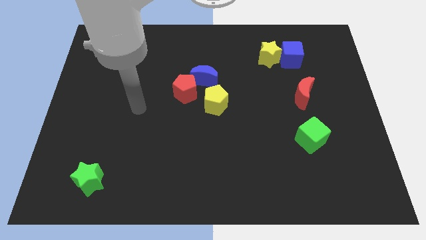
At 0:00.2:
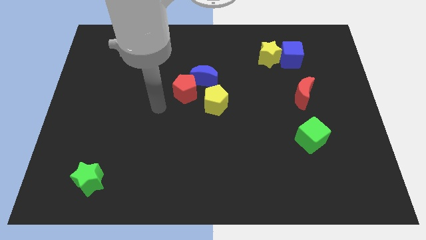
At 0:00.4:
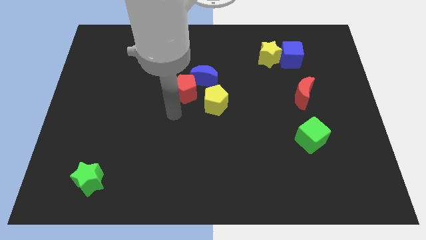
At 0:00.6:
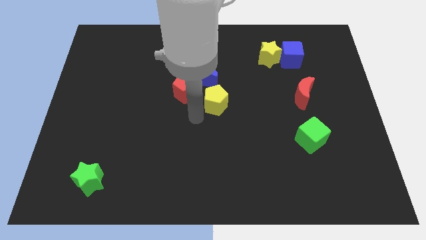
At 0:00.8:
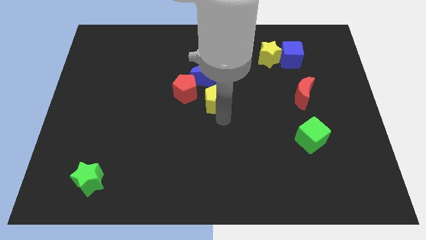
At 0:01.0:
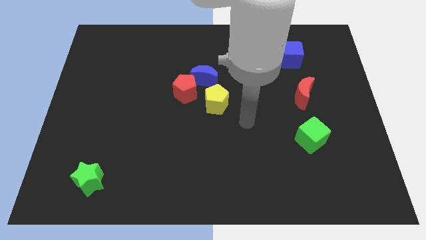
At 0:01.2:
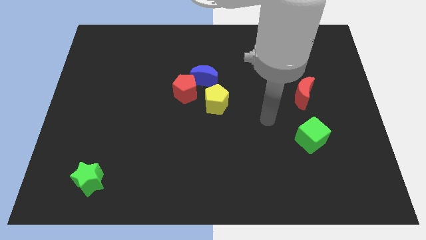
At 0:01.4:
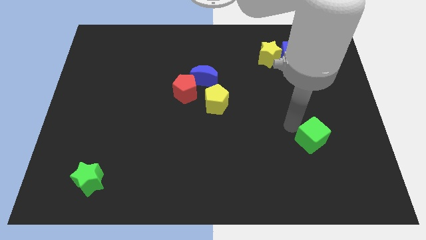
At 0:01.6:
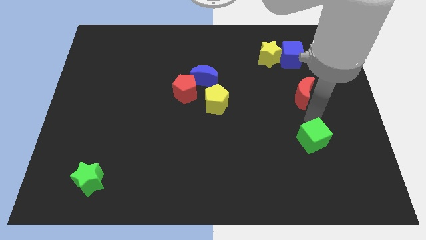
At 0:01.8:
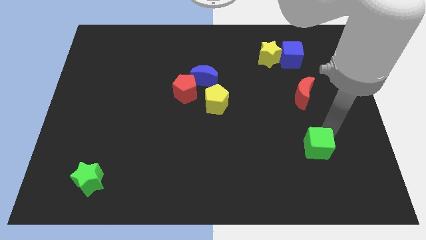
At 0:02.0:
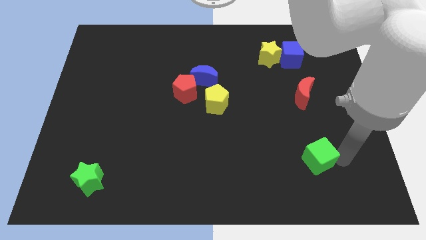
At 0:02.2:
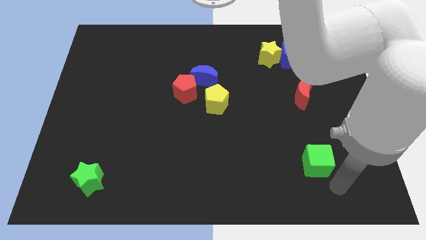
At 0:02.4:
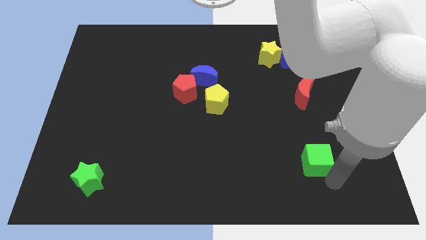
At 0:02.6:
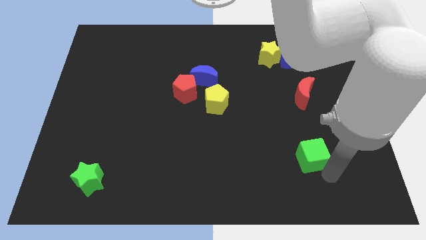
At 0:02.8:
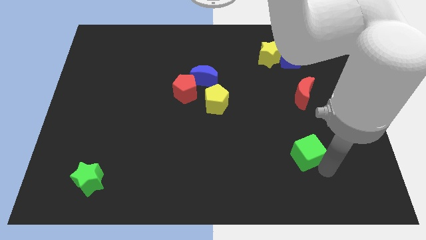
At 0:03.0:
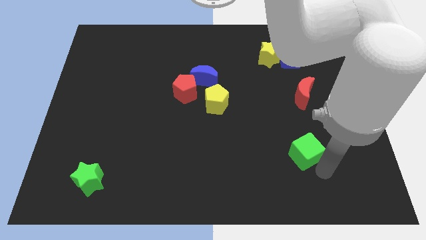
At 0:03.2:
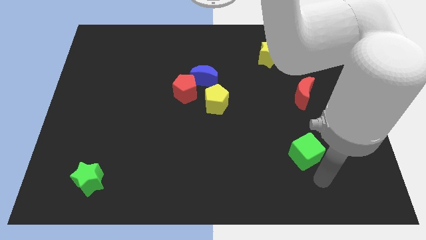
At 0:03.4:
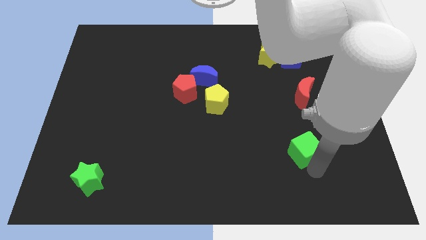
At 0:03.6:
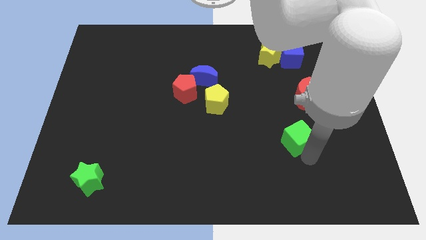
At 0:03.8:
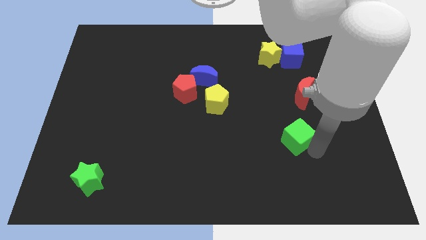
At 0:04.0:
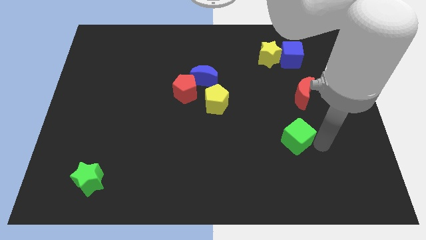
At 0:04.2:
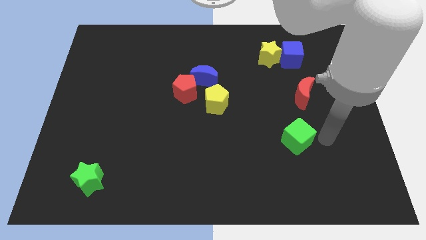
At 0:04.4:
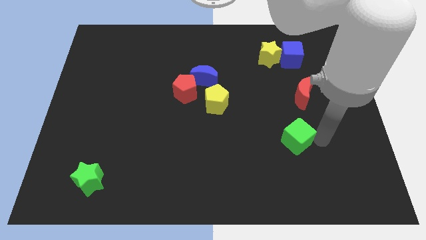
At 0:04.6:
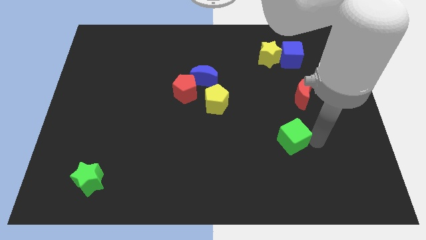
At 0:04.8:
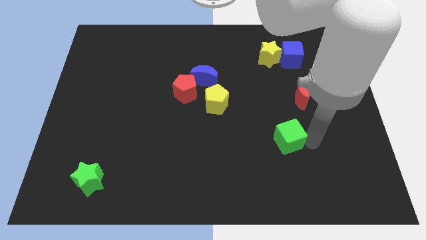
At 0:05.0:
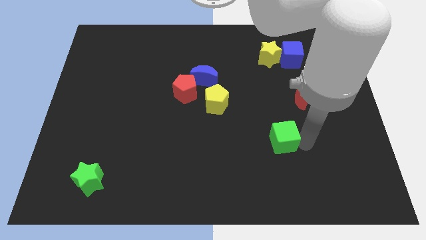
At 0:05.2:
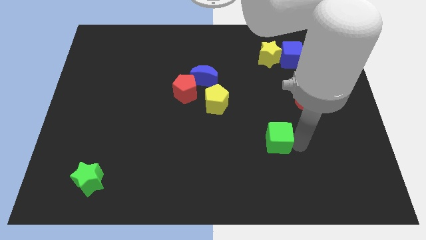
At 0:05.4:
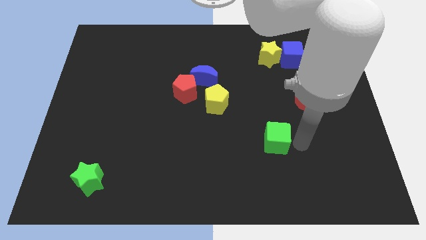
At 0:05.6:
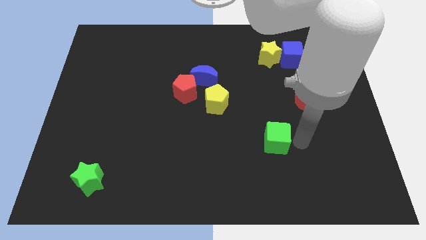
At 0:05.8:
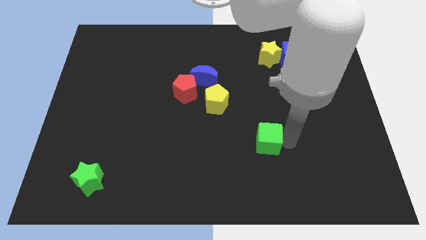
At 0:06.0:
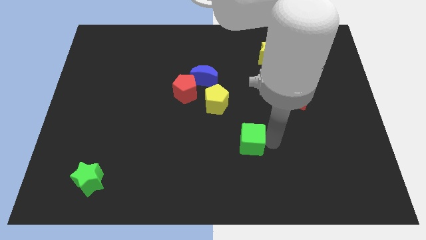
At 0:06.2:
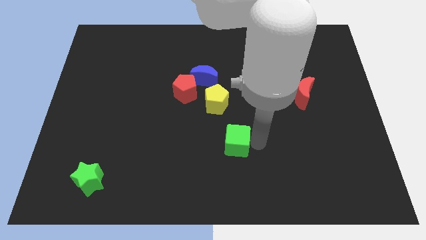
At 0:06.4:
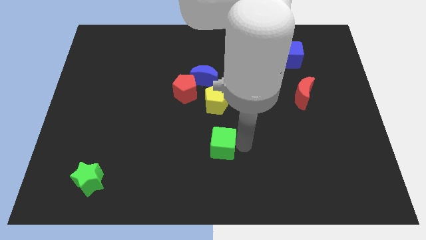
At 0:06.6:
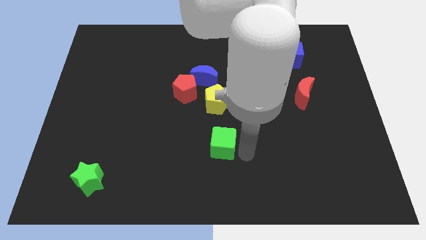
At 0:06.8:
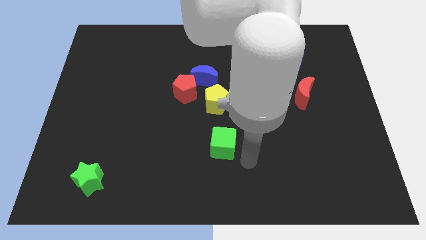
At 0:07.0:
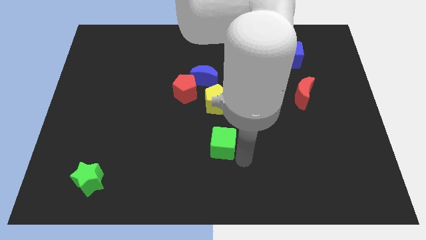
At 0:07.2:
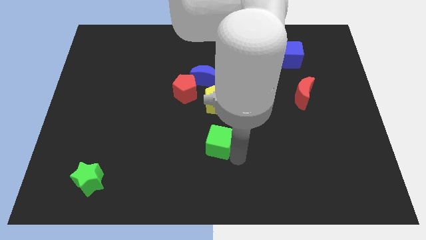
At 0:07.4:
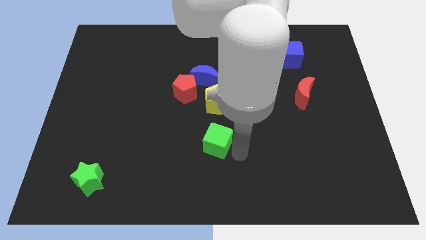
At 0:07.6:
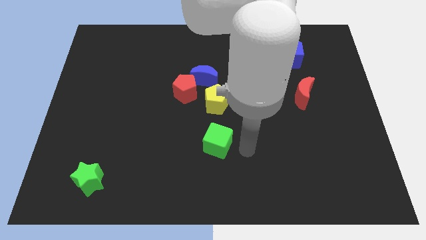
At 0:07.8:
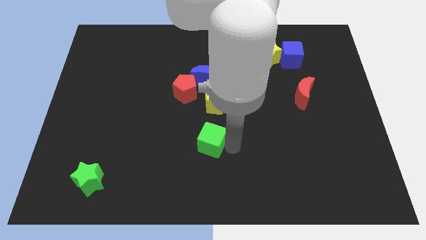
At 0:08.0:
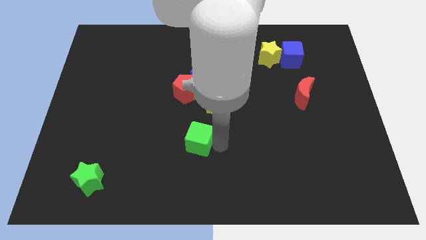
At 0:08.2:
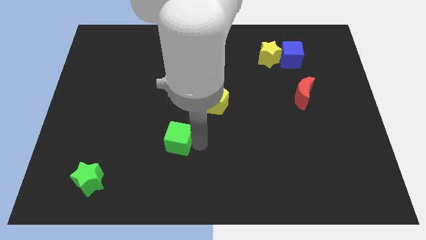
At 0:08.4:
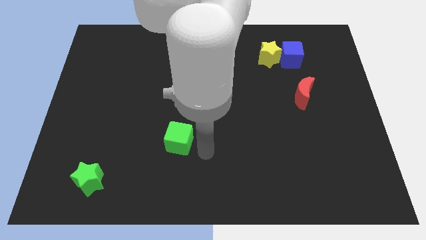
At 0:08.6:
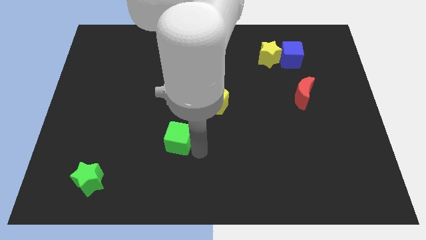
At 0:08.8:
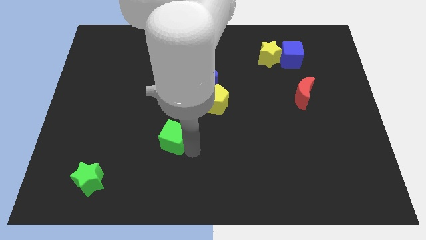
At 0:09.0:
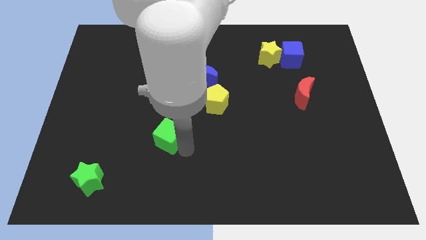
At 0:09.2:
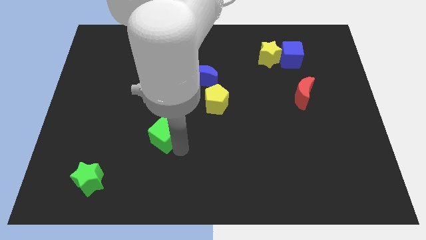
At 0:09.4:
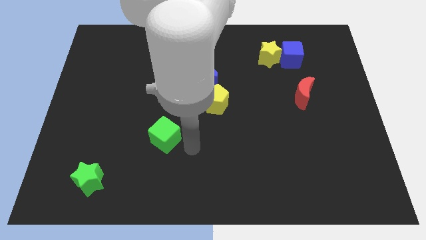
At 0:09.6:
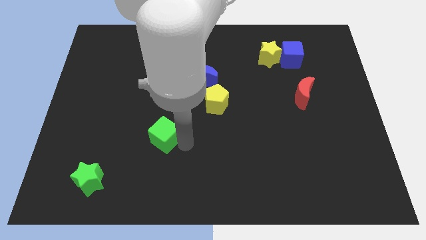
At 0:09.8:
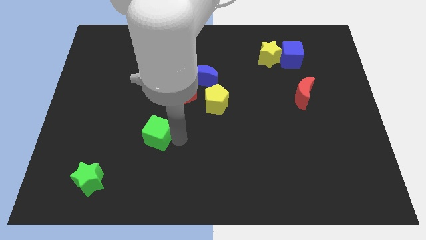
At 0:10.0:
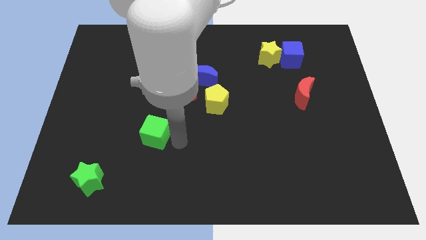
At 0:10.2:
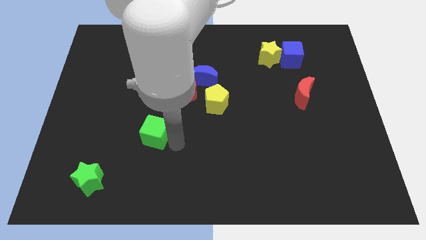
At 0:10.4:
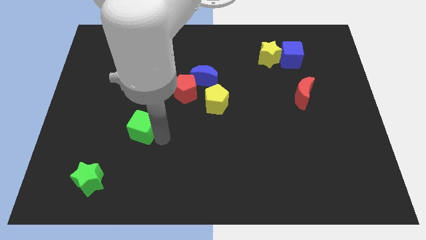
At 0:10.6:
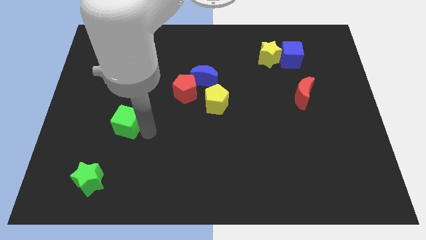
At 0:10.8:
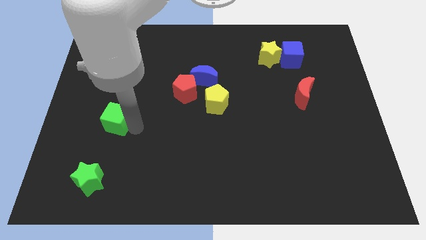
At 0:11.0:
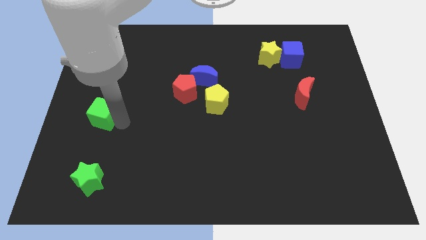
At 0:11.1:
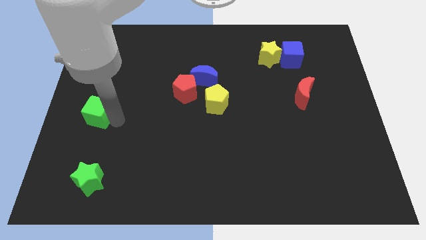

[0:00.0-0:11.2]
slide the green cube to the left side

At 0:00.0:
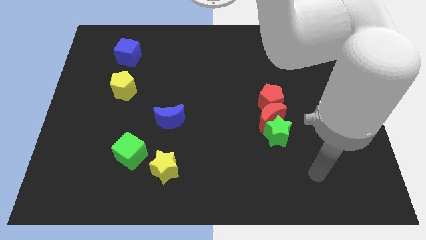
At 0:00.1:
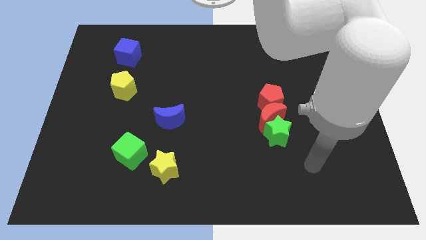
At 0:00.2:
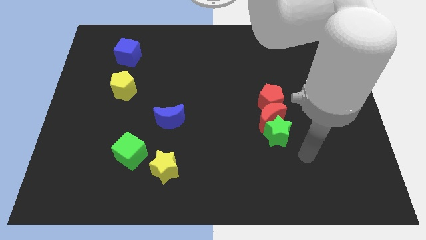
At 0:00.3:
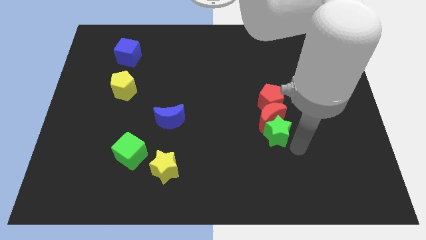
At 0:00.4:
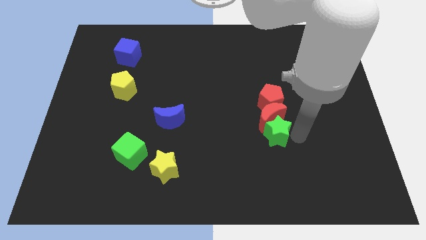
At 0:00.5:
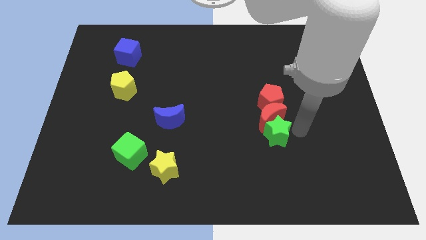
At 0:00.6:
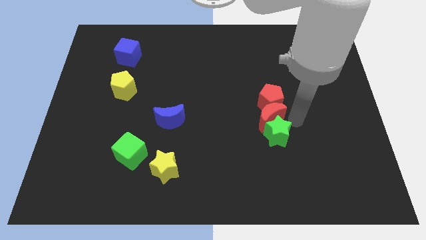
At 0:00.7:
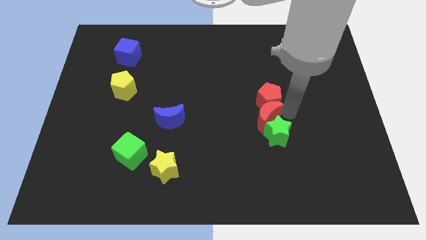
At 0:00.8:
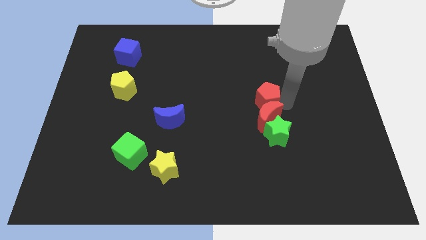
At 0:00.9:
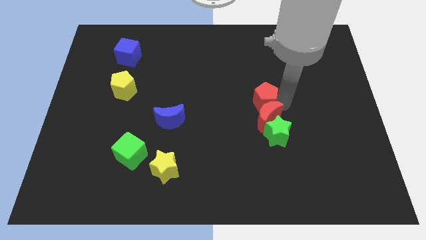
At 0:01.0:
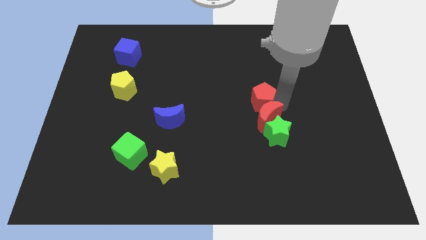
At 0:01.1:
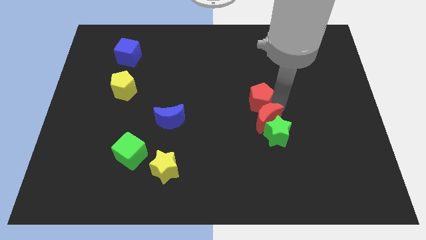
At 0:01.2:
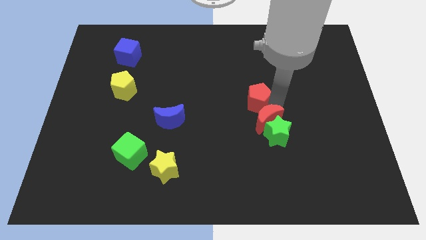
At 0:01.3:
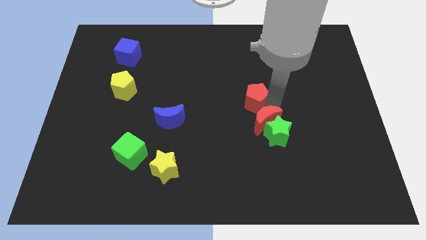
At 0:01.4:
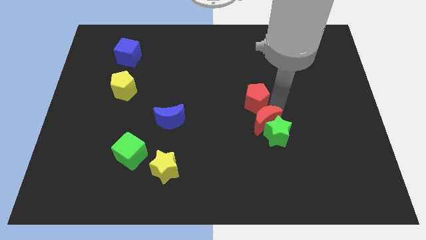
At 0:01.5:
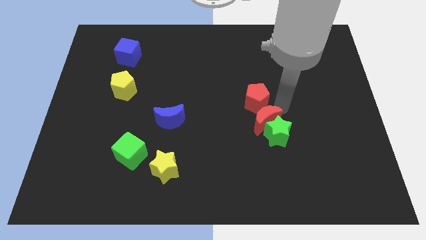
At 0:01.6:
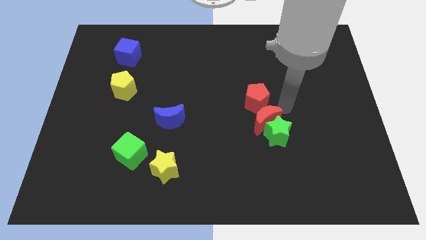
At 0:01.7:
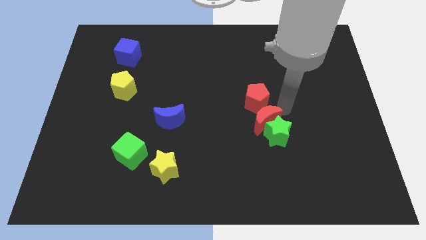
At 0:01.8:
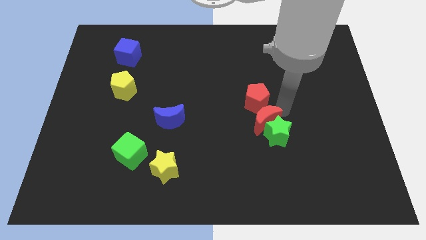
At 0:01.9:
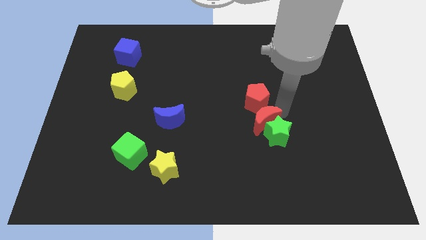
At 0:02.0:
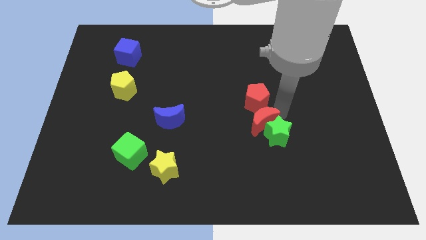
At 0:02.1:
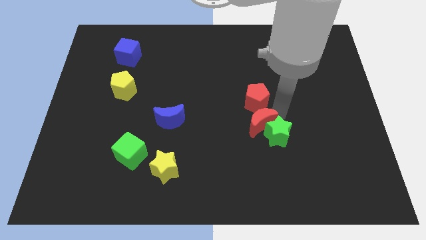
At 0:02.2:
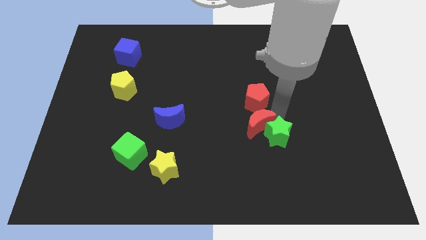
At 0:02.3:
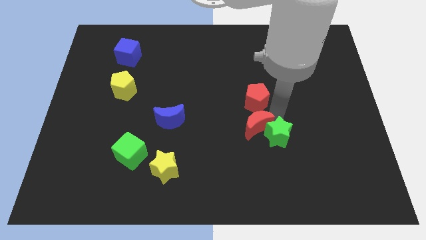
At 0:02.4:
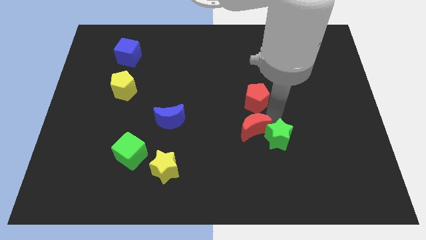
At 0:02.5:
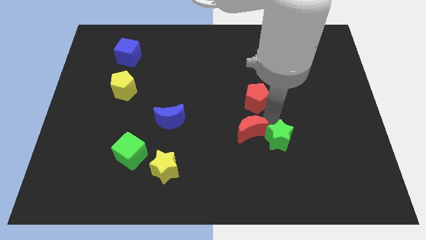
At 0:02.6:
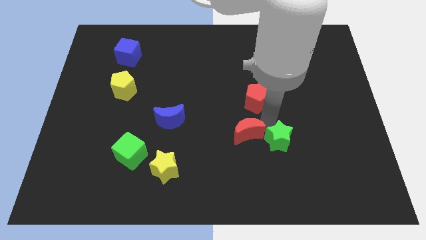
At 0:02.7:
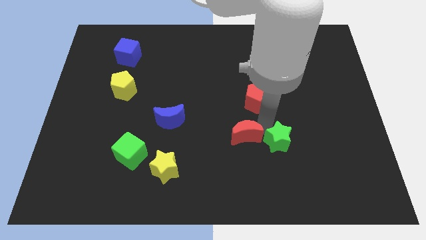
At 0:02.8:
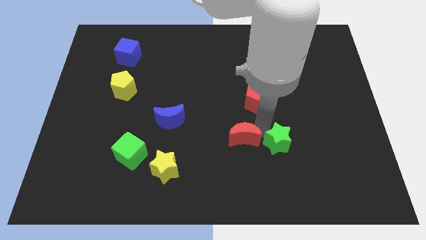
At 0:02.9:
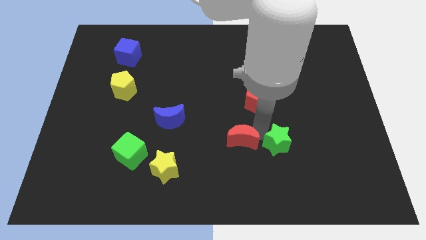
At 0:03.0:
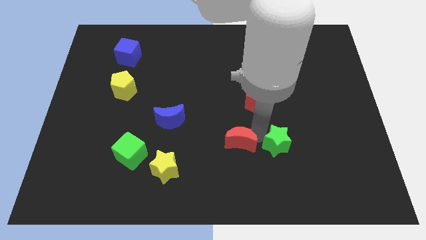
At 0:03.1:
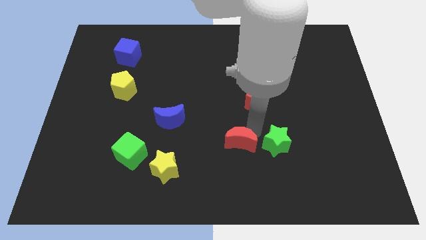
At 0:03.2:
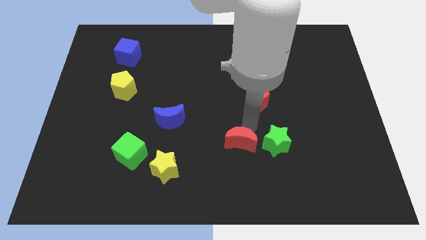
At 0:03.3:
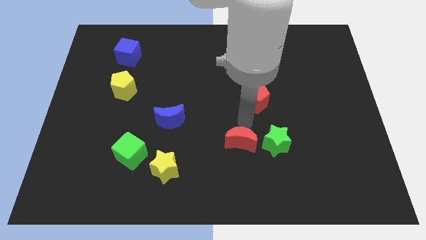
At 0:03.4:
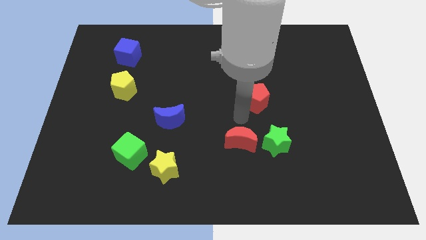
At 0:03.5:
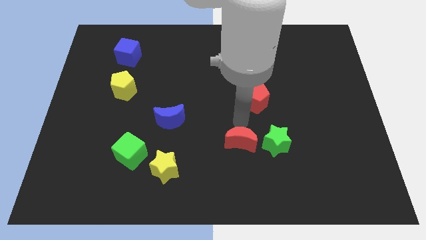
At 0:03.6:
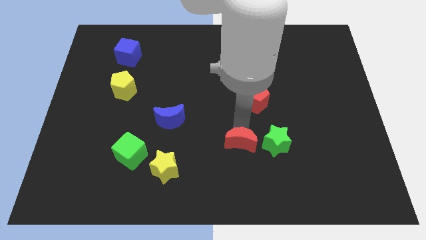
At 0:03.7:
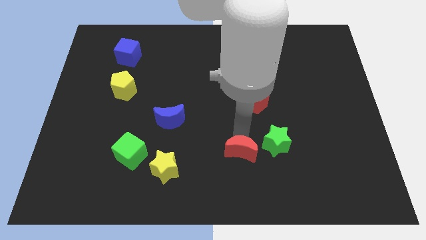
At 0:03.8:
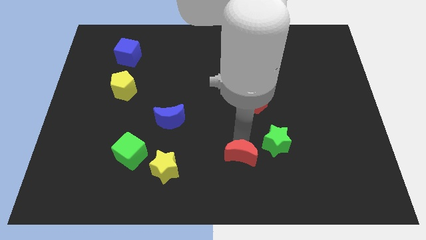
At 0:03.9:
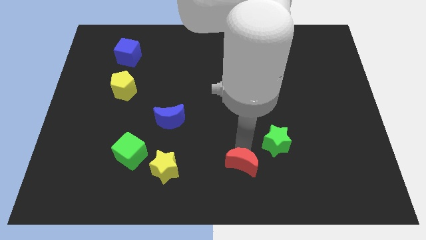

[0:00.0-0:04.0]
put the red moon to the bottom
